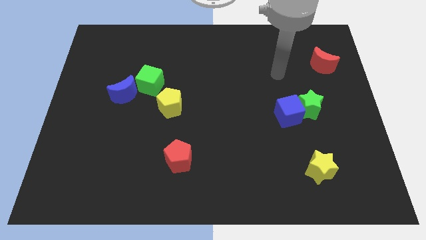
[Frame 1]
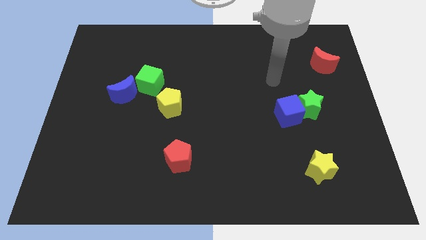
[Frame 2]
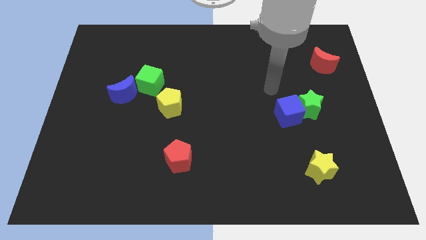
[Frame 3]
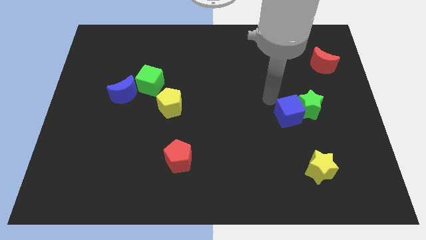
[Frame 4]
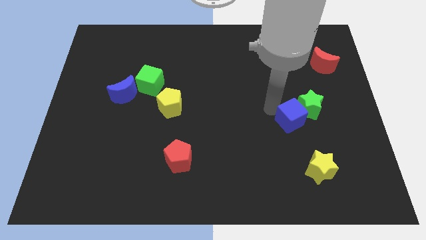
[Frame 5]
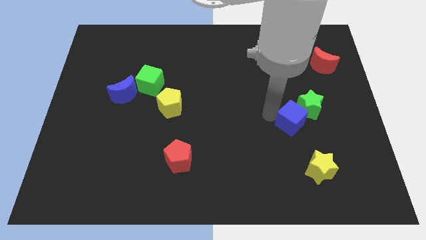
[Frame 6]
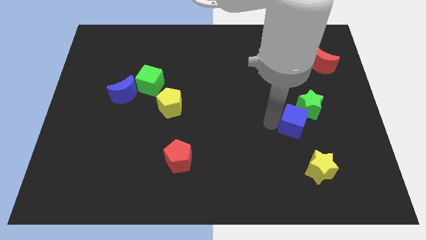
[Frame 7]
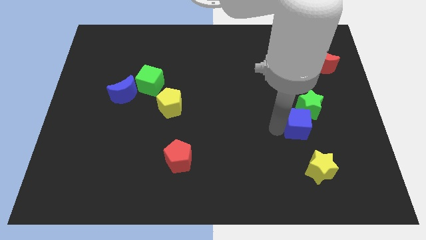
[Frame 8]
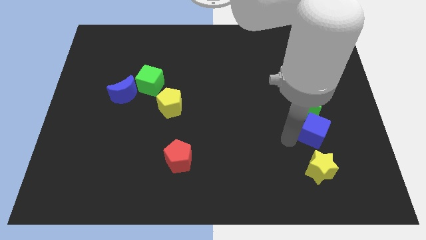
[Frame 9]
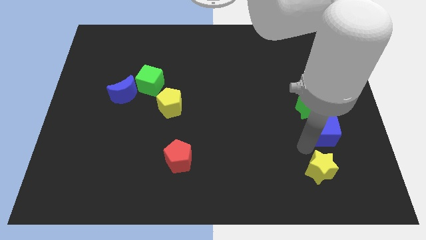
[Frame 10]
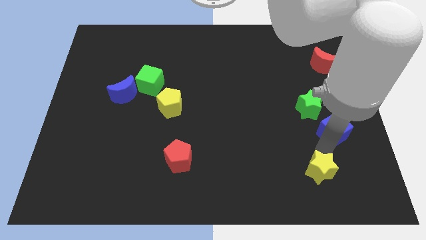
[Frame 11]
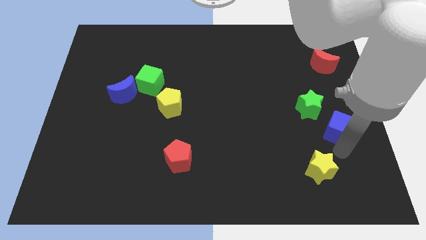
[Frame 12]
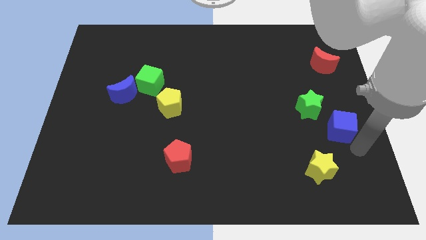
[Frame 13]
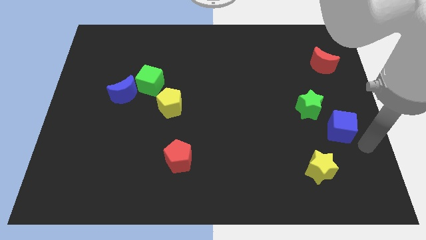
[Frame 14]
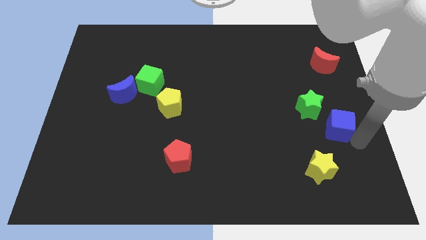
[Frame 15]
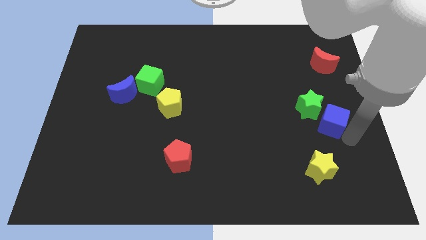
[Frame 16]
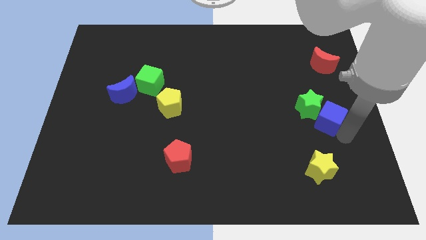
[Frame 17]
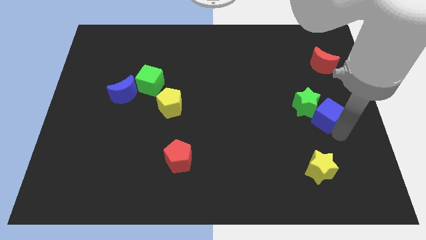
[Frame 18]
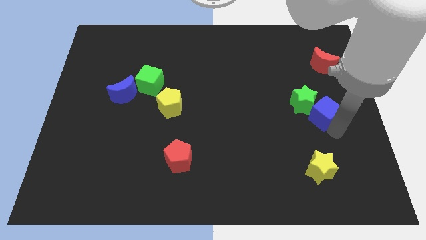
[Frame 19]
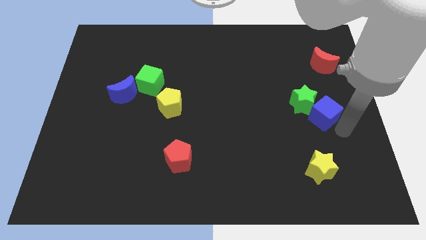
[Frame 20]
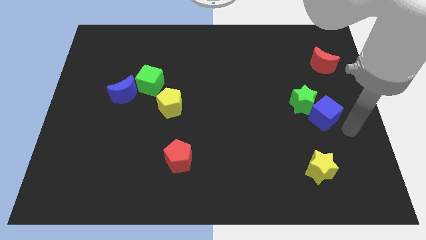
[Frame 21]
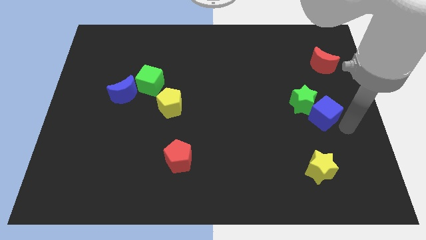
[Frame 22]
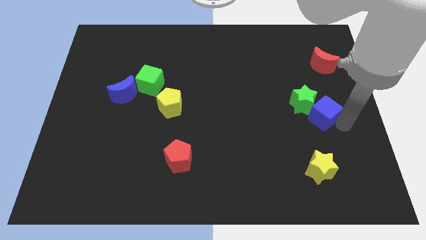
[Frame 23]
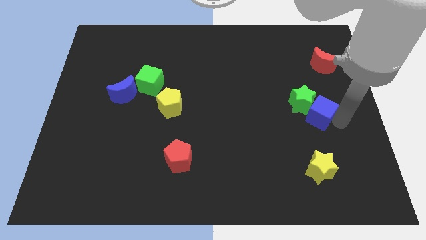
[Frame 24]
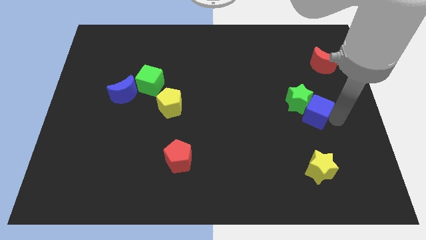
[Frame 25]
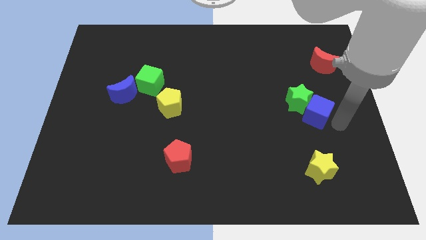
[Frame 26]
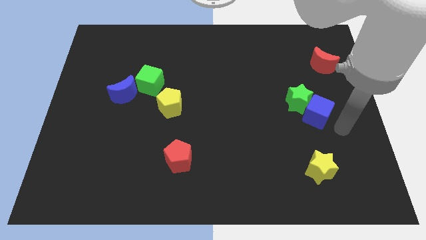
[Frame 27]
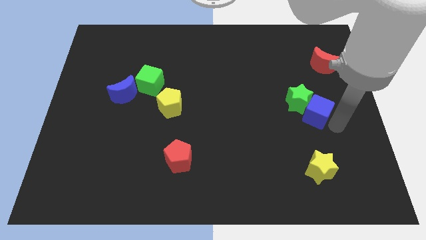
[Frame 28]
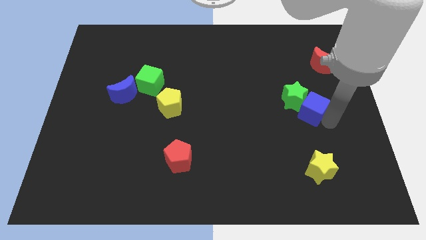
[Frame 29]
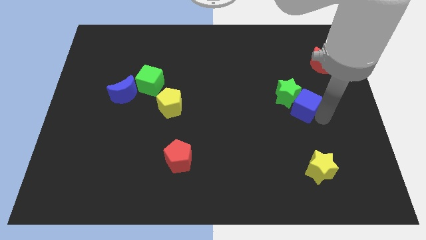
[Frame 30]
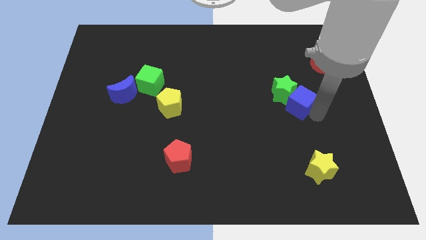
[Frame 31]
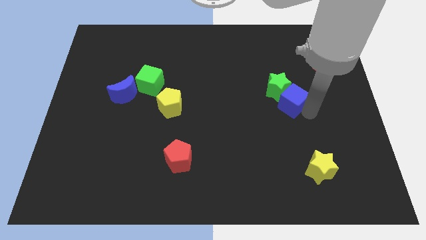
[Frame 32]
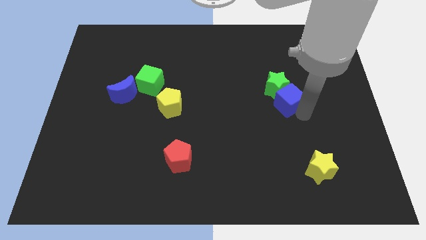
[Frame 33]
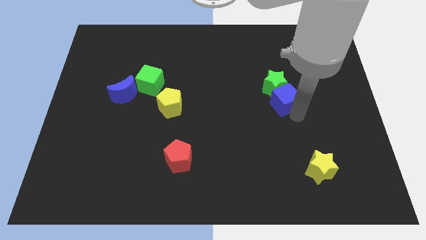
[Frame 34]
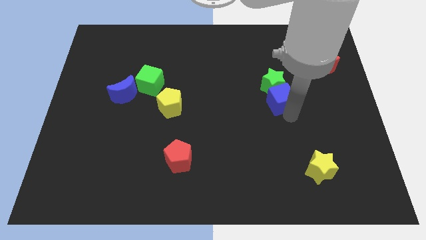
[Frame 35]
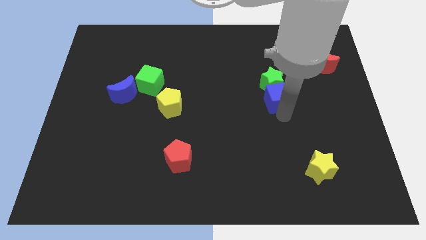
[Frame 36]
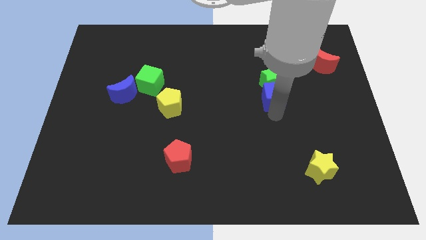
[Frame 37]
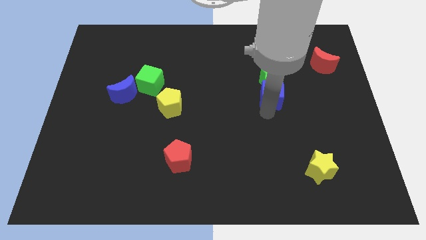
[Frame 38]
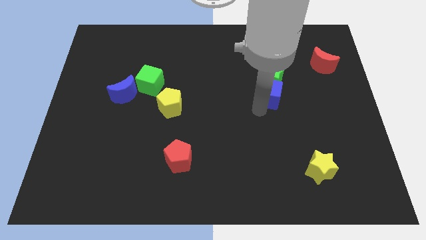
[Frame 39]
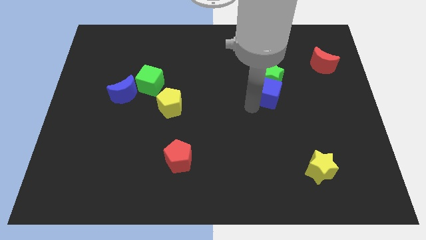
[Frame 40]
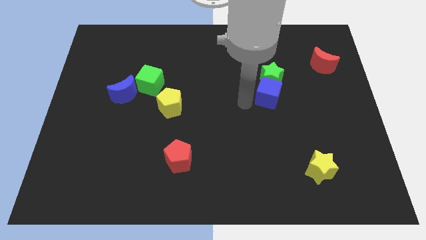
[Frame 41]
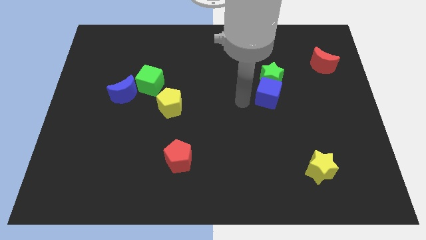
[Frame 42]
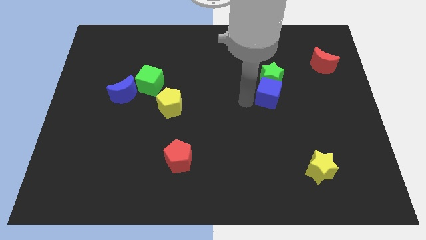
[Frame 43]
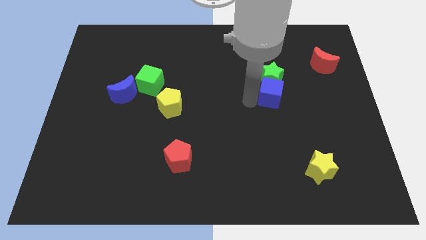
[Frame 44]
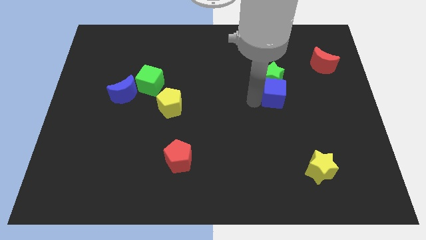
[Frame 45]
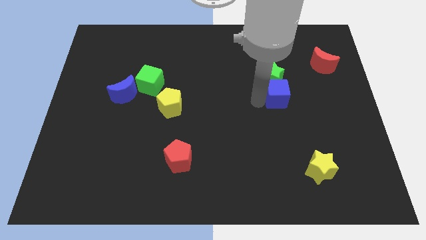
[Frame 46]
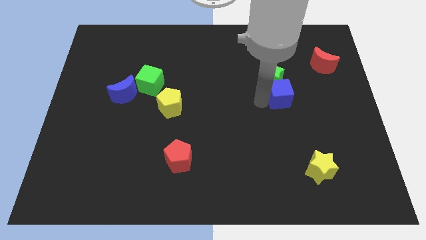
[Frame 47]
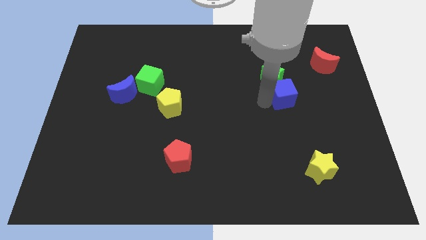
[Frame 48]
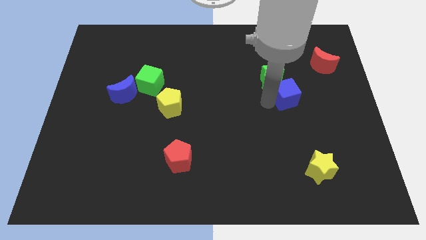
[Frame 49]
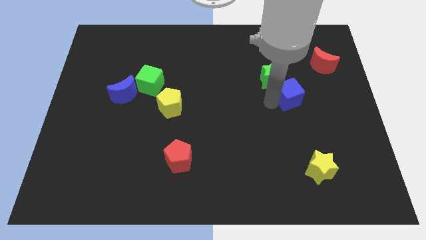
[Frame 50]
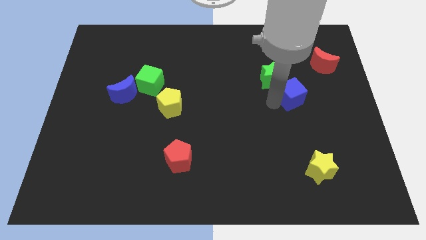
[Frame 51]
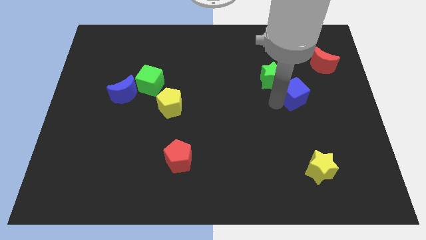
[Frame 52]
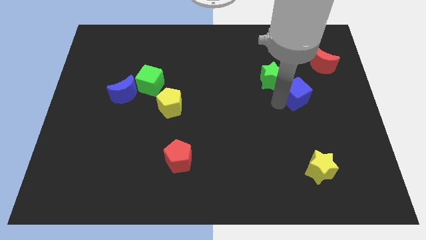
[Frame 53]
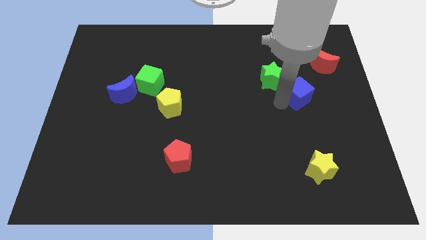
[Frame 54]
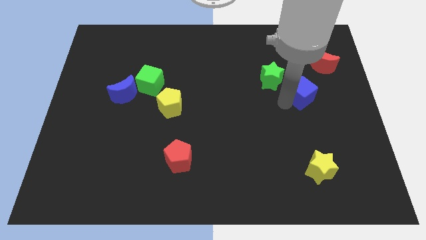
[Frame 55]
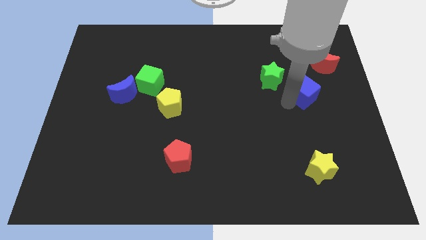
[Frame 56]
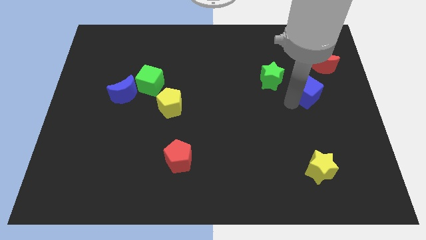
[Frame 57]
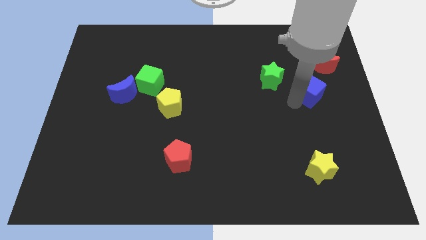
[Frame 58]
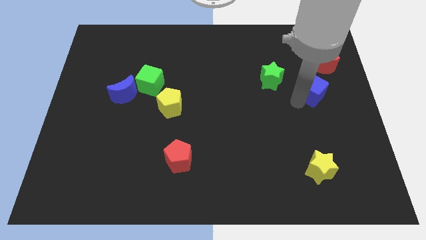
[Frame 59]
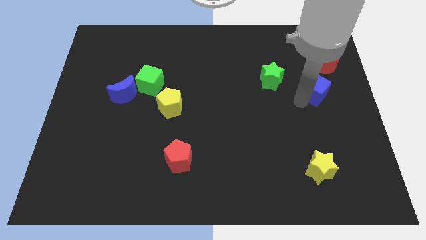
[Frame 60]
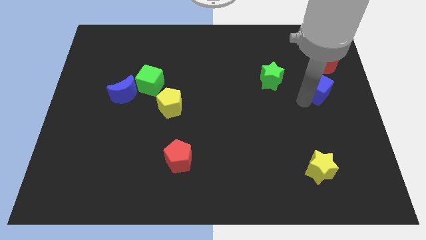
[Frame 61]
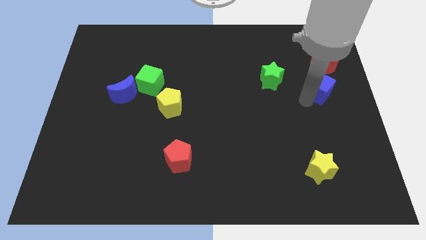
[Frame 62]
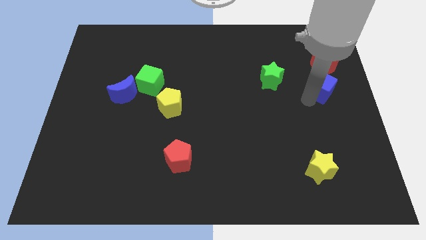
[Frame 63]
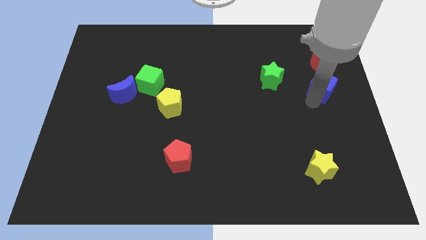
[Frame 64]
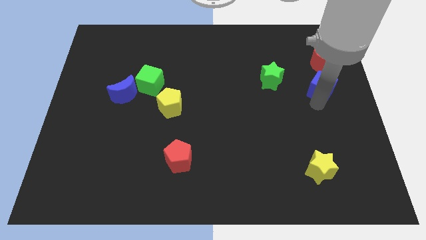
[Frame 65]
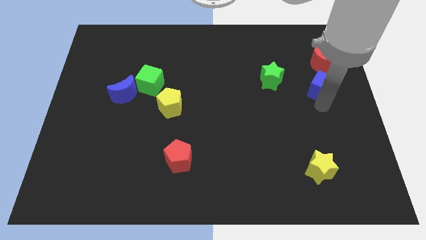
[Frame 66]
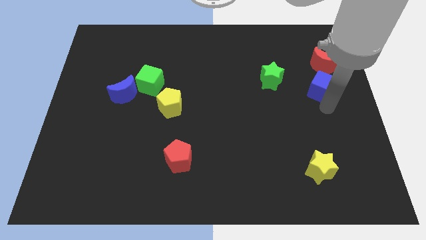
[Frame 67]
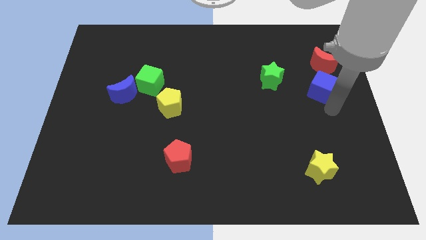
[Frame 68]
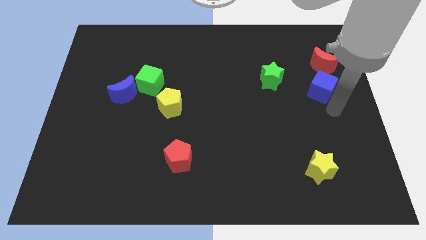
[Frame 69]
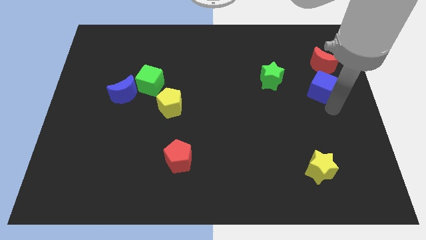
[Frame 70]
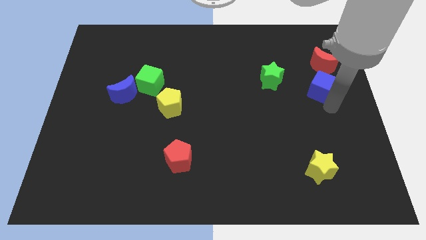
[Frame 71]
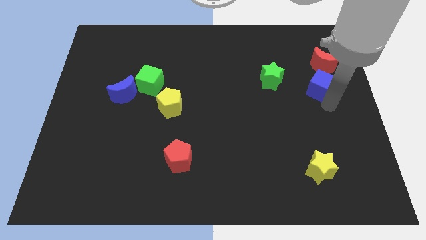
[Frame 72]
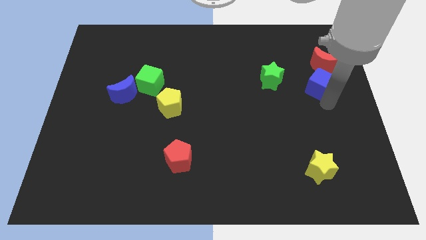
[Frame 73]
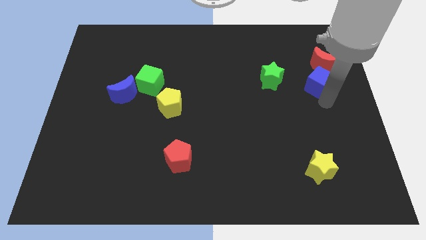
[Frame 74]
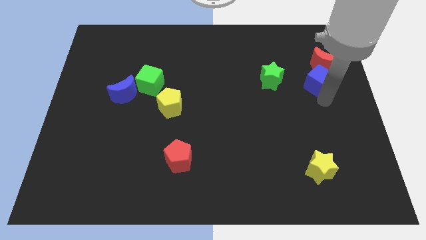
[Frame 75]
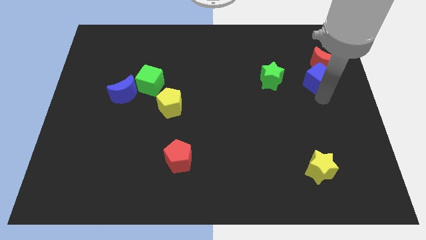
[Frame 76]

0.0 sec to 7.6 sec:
move the blue cube close to the red moon
